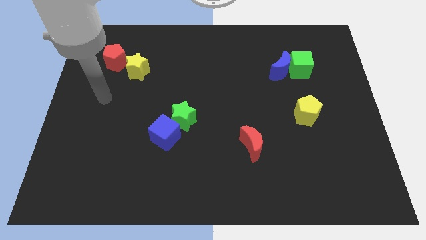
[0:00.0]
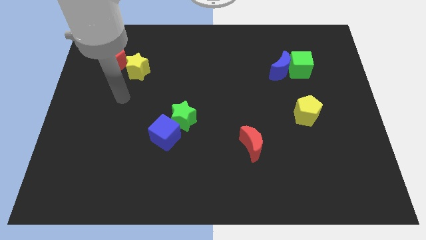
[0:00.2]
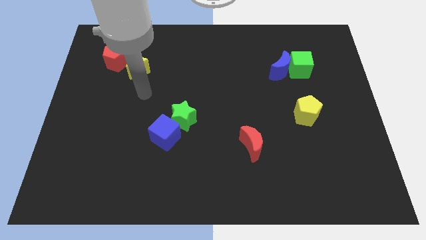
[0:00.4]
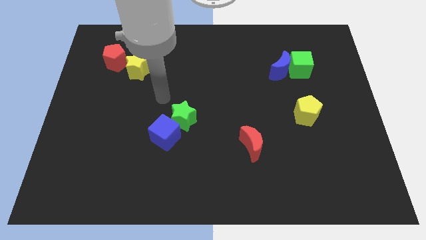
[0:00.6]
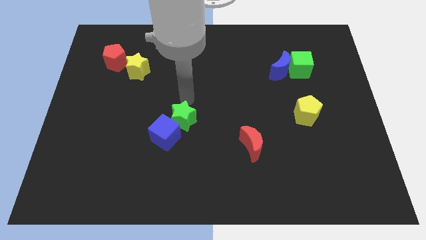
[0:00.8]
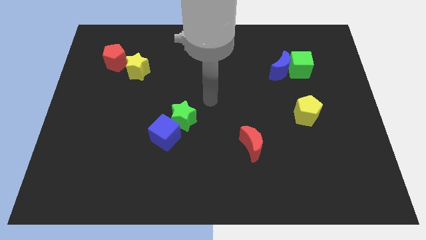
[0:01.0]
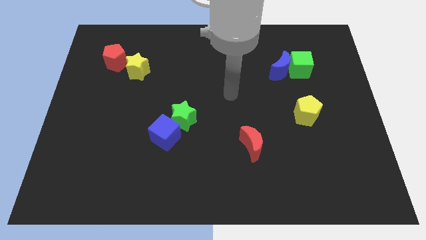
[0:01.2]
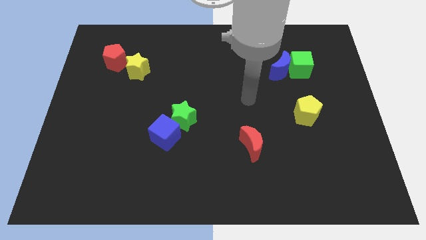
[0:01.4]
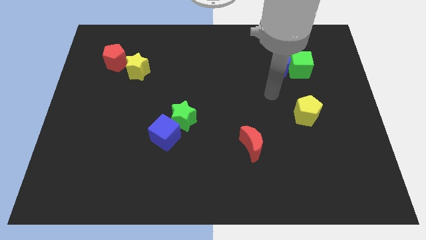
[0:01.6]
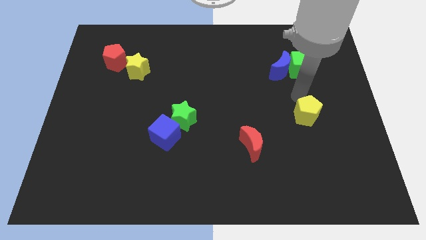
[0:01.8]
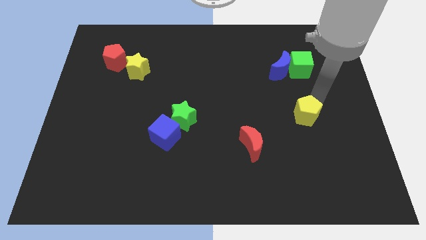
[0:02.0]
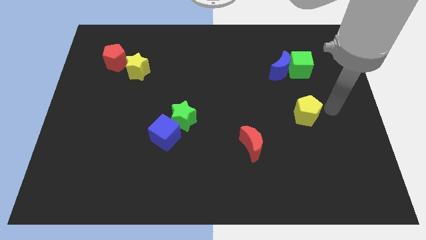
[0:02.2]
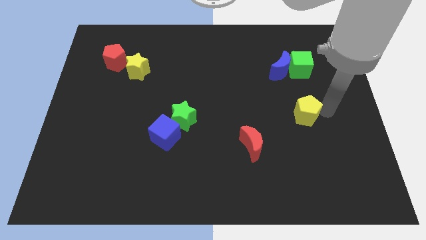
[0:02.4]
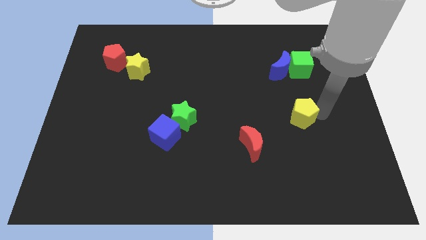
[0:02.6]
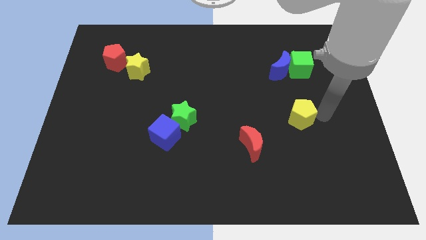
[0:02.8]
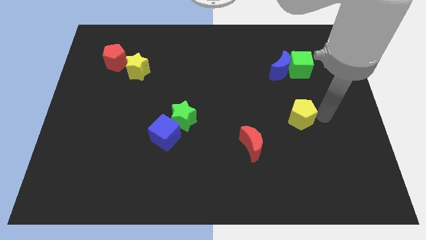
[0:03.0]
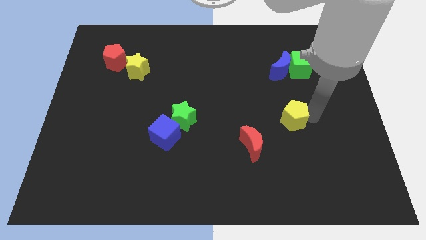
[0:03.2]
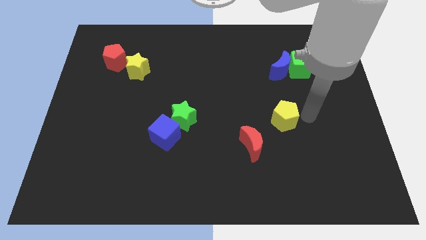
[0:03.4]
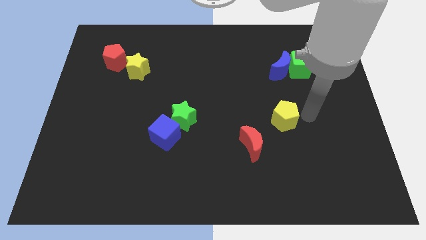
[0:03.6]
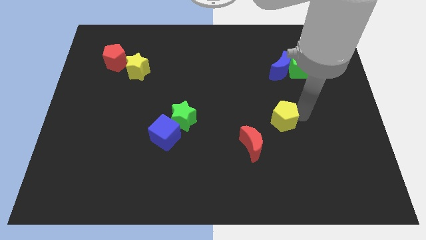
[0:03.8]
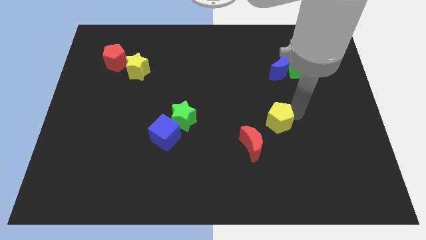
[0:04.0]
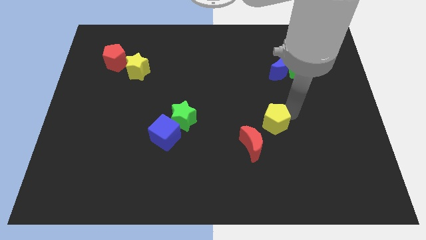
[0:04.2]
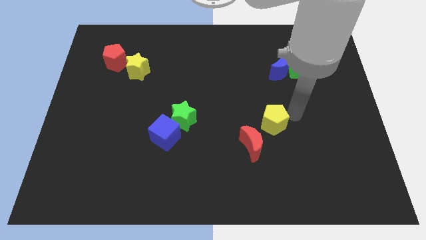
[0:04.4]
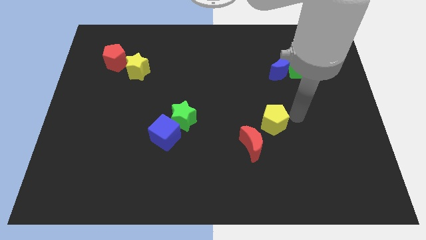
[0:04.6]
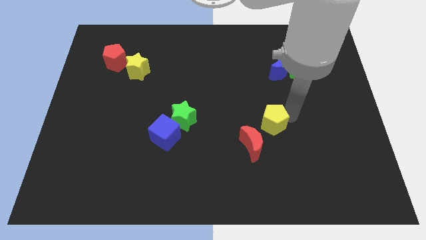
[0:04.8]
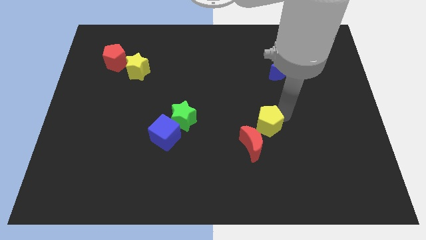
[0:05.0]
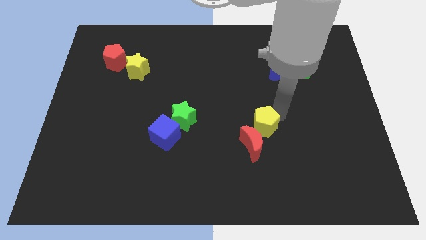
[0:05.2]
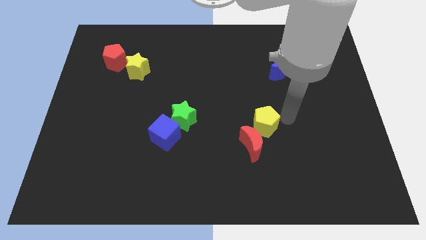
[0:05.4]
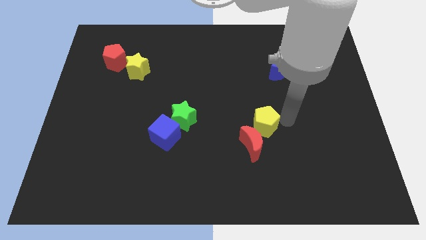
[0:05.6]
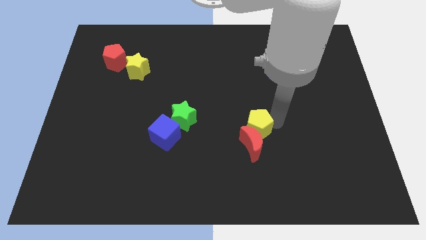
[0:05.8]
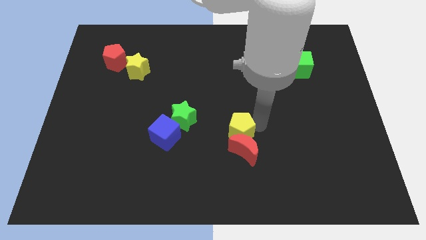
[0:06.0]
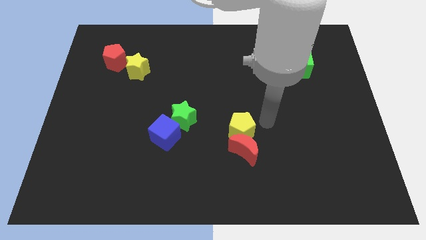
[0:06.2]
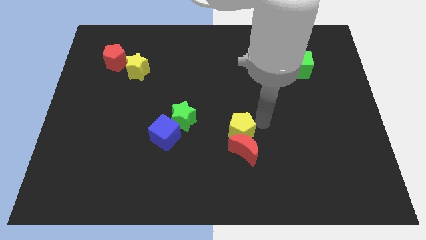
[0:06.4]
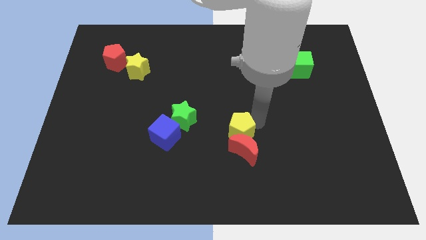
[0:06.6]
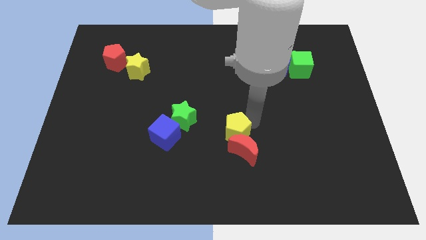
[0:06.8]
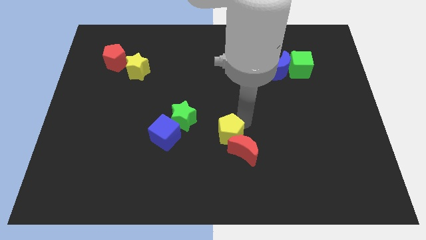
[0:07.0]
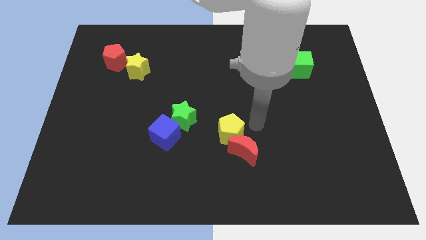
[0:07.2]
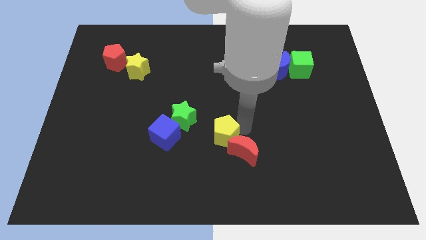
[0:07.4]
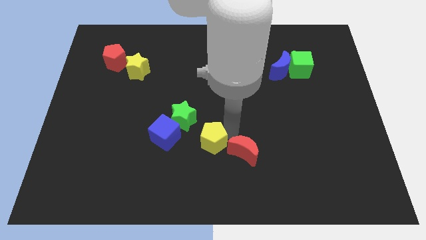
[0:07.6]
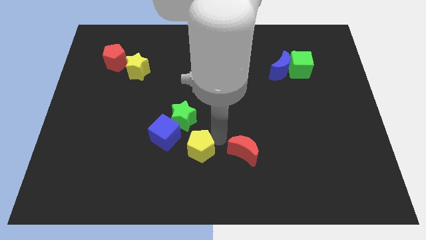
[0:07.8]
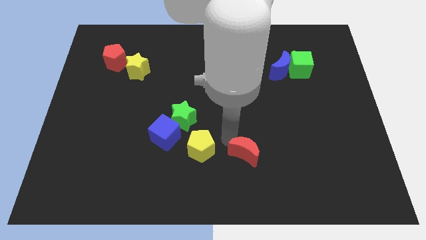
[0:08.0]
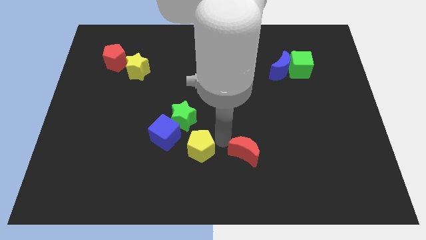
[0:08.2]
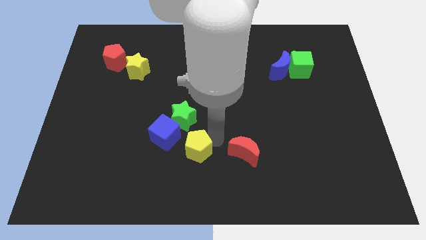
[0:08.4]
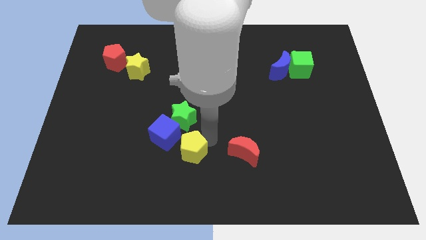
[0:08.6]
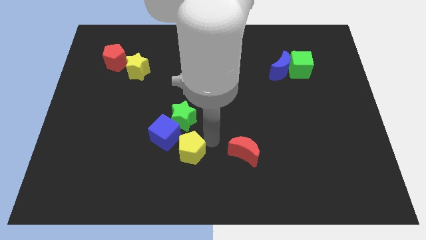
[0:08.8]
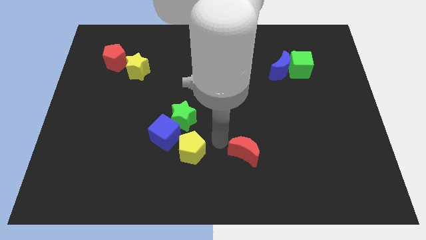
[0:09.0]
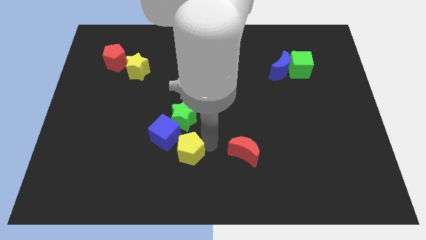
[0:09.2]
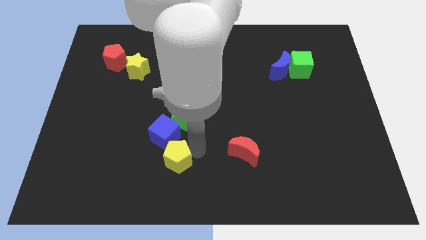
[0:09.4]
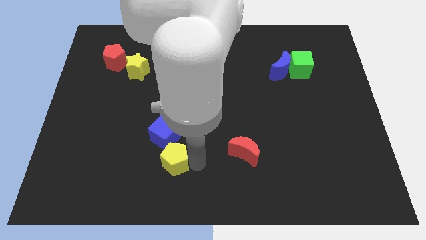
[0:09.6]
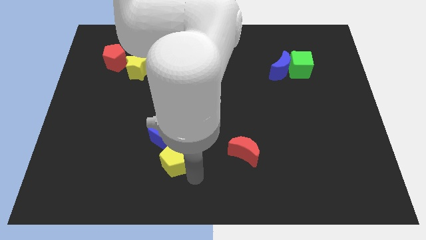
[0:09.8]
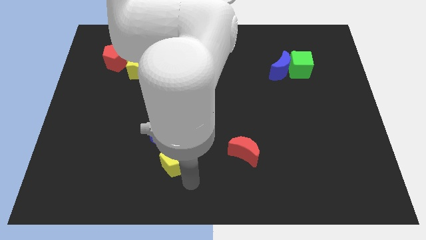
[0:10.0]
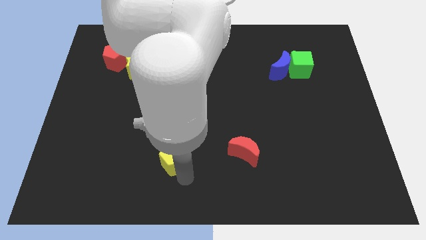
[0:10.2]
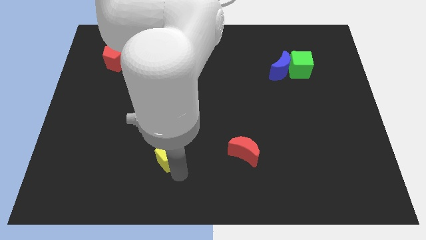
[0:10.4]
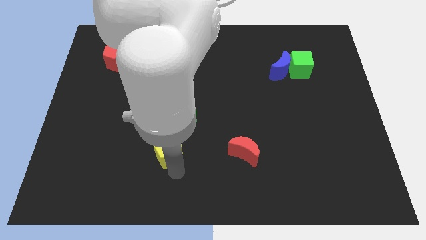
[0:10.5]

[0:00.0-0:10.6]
put the yellow pentagon to the bottom left of the green star

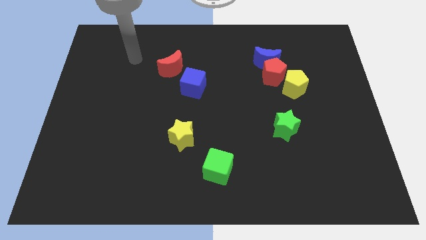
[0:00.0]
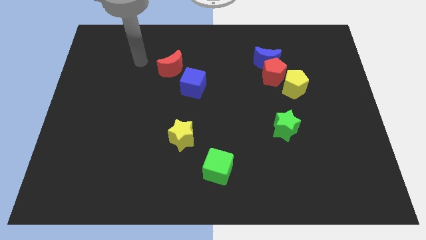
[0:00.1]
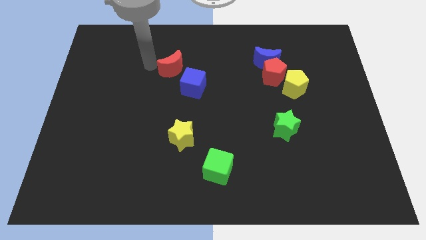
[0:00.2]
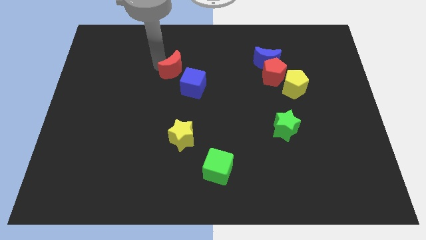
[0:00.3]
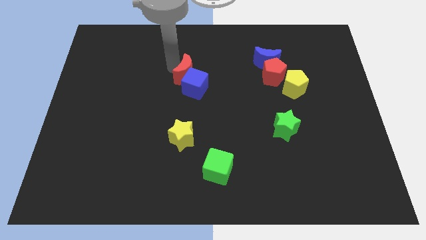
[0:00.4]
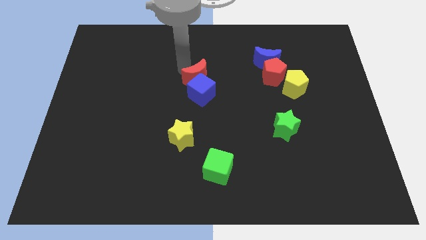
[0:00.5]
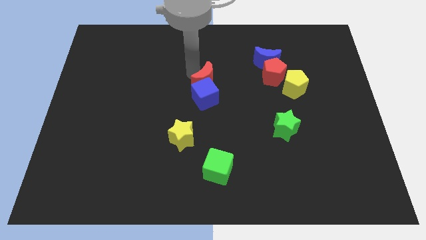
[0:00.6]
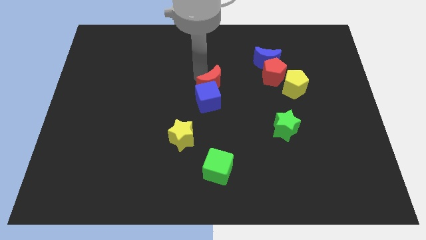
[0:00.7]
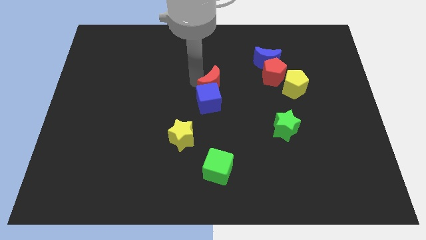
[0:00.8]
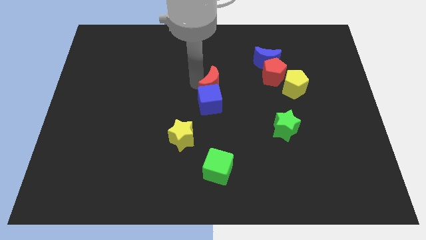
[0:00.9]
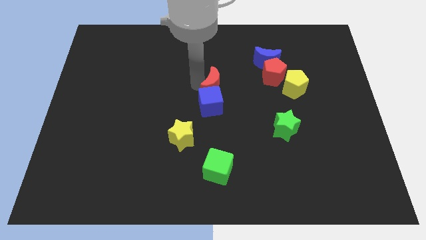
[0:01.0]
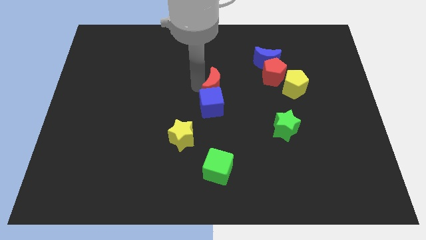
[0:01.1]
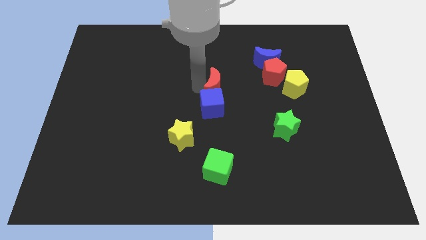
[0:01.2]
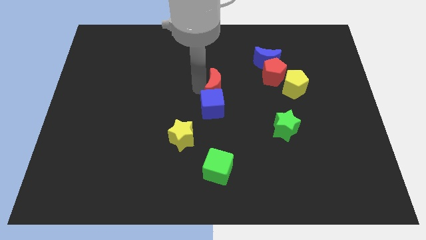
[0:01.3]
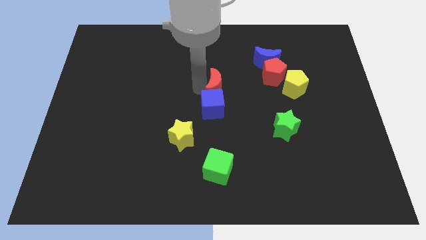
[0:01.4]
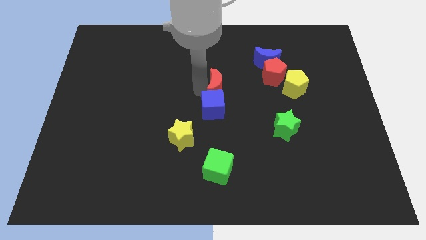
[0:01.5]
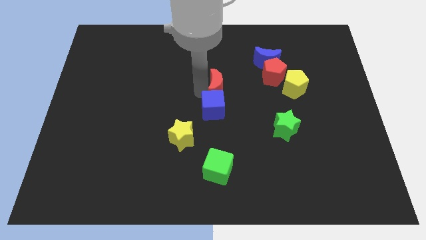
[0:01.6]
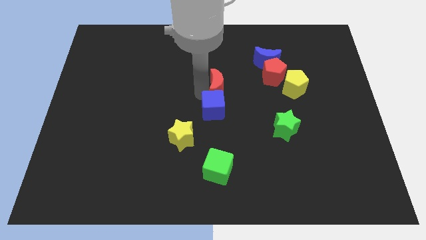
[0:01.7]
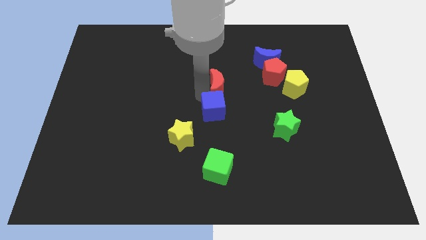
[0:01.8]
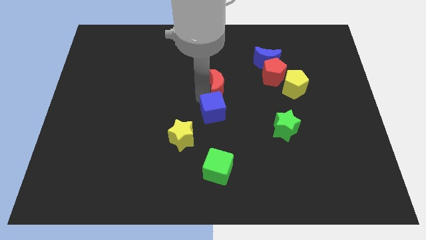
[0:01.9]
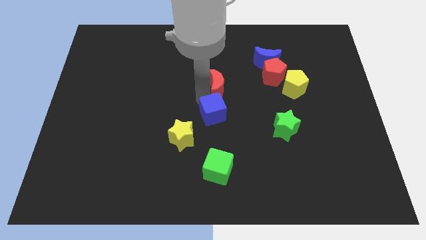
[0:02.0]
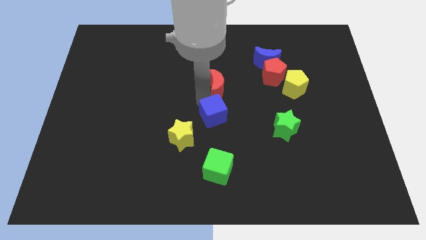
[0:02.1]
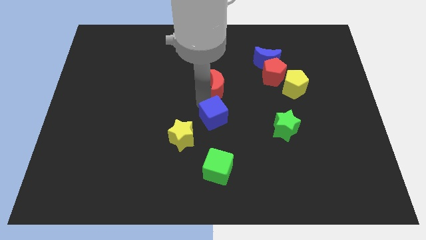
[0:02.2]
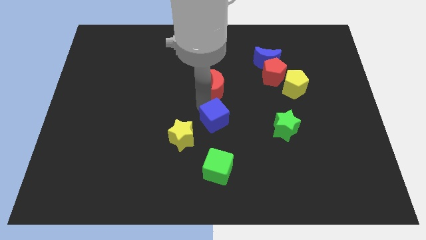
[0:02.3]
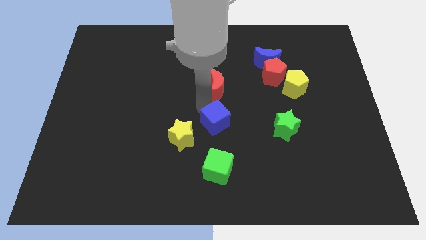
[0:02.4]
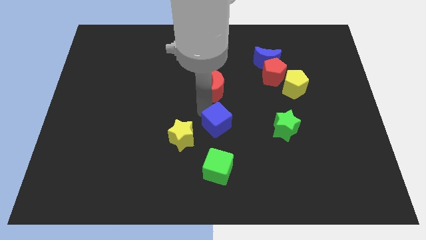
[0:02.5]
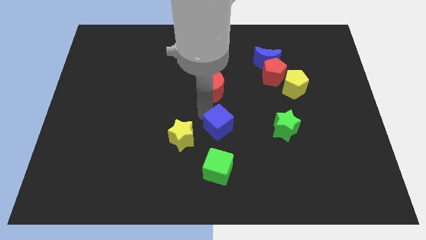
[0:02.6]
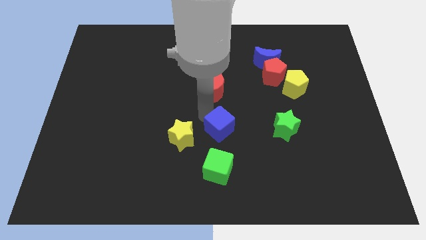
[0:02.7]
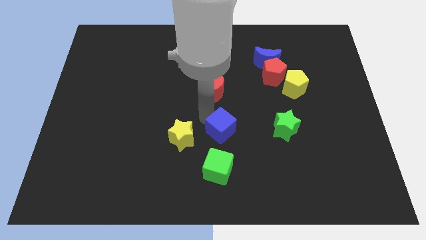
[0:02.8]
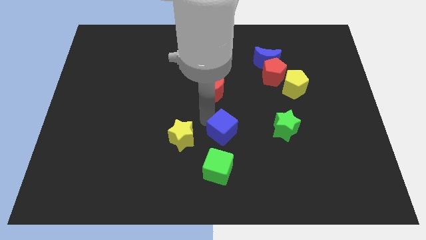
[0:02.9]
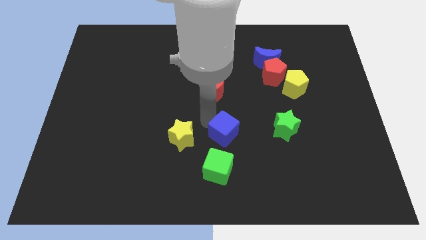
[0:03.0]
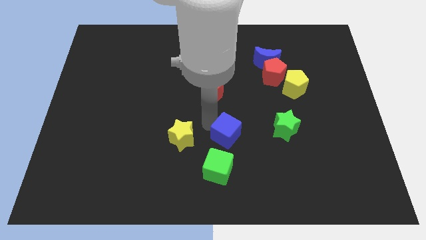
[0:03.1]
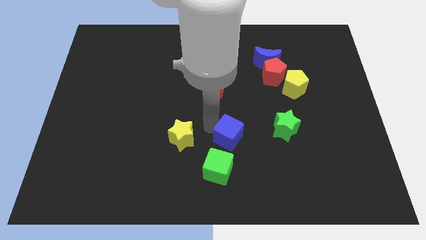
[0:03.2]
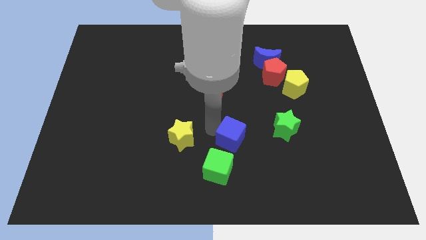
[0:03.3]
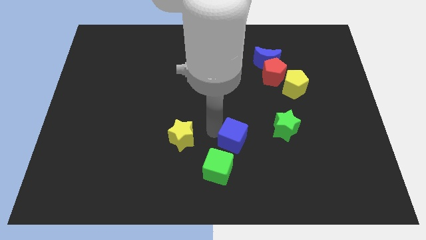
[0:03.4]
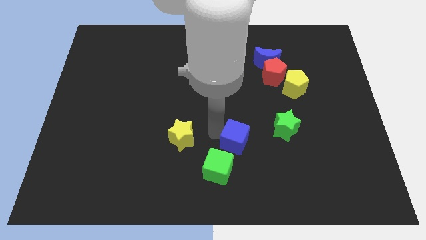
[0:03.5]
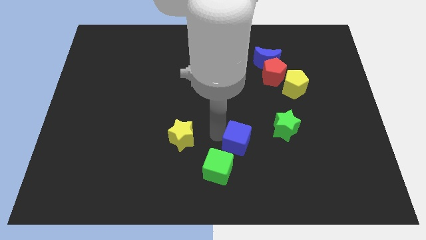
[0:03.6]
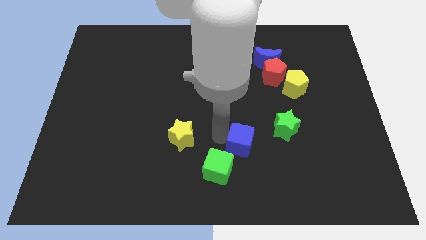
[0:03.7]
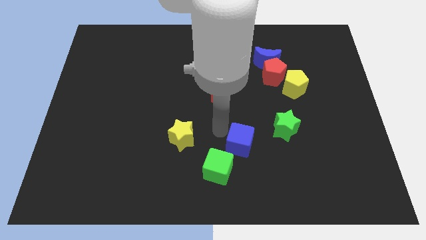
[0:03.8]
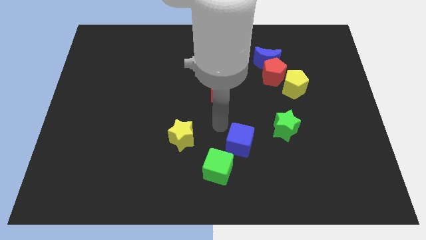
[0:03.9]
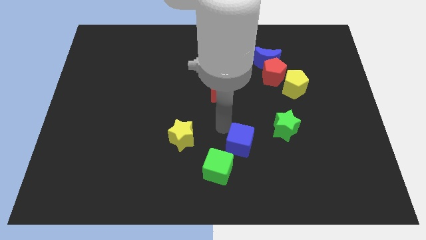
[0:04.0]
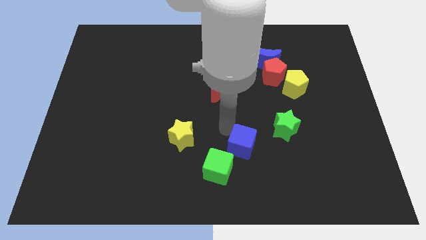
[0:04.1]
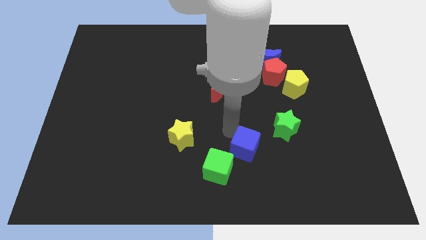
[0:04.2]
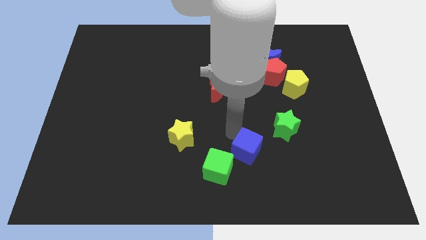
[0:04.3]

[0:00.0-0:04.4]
push the blue cube to the right side of the green cube
